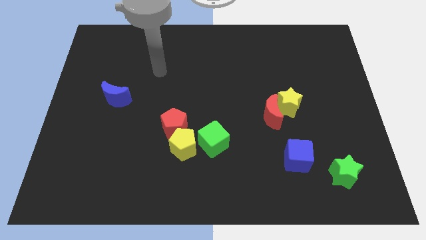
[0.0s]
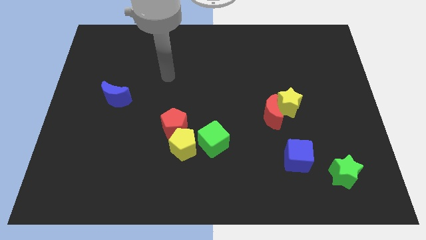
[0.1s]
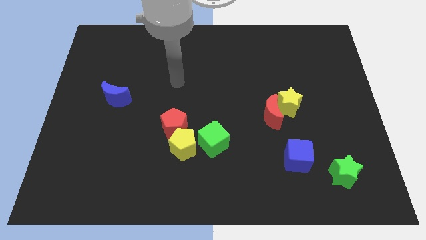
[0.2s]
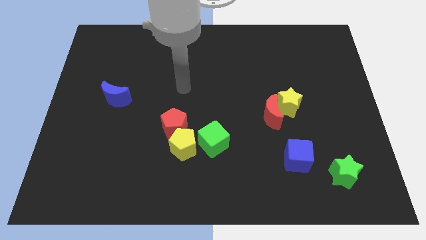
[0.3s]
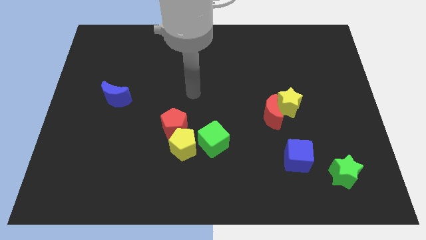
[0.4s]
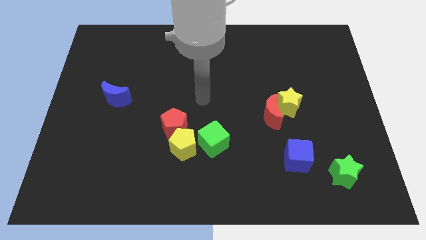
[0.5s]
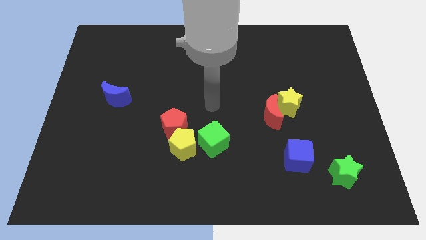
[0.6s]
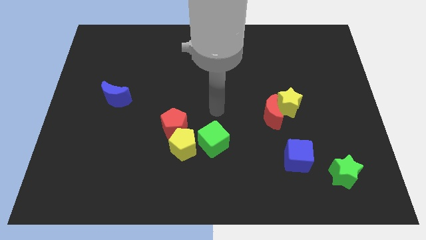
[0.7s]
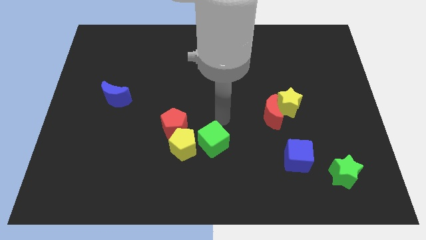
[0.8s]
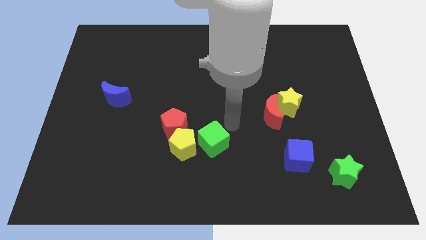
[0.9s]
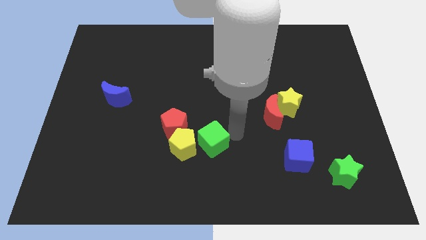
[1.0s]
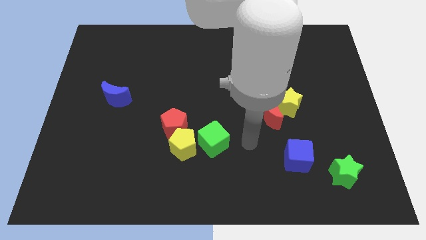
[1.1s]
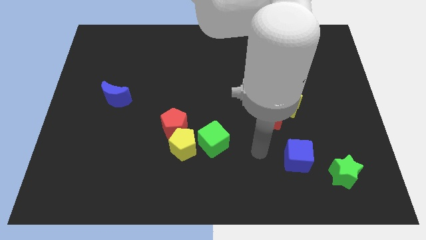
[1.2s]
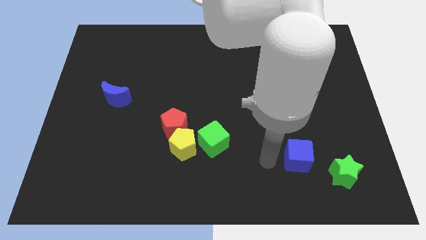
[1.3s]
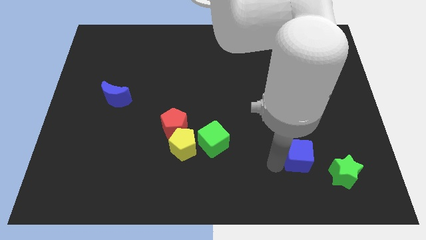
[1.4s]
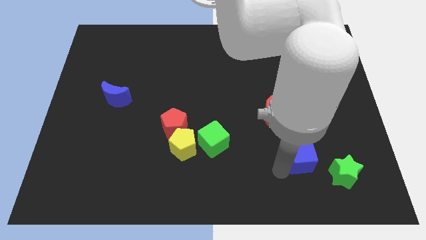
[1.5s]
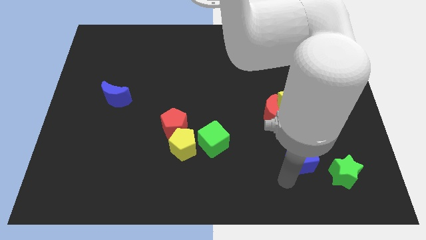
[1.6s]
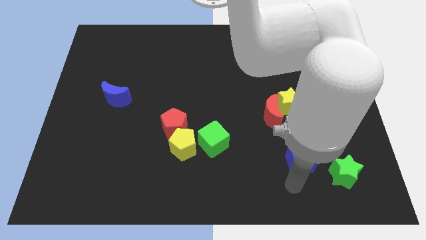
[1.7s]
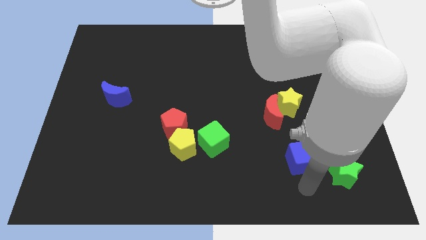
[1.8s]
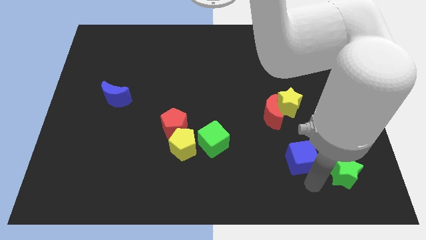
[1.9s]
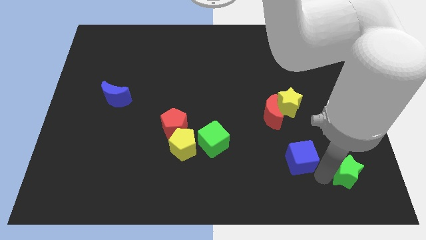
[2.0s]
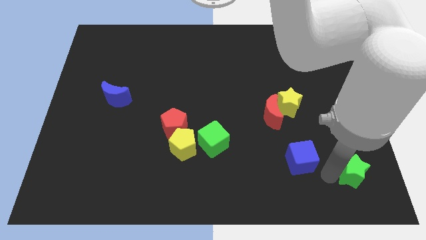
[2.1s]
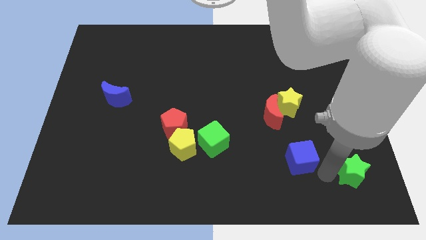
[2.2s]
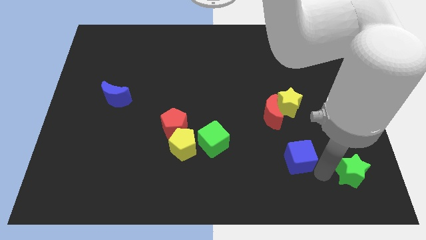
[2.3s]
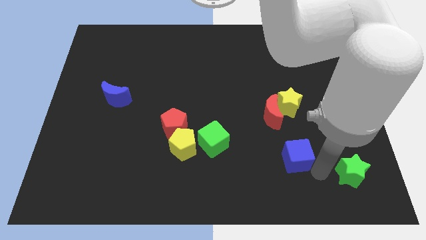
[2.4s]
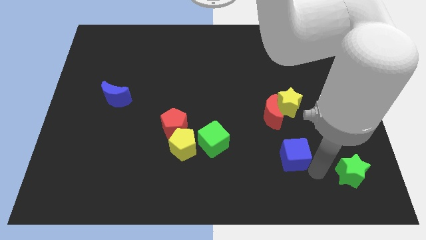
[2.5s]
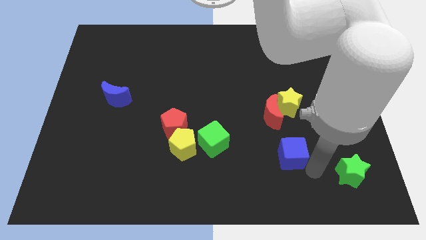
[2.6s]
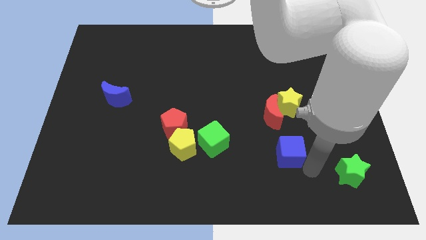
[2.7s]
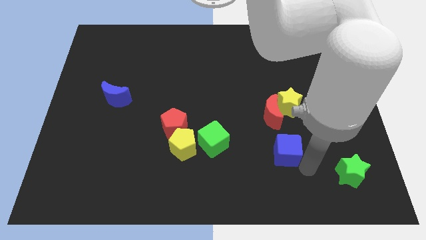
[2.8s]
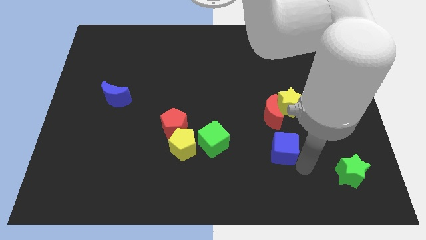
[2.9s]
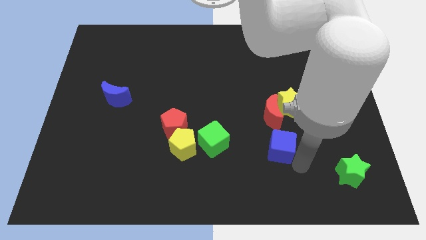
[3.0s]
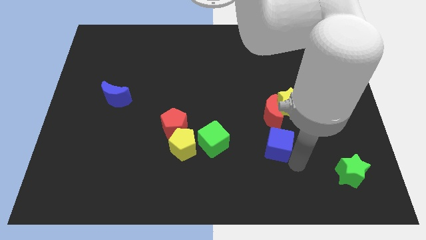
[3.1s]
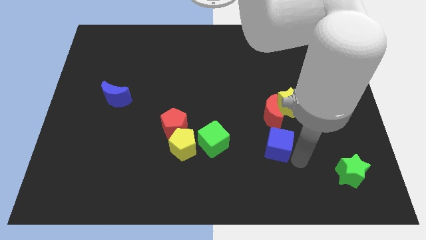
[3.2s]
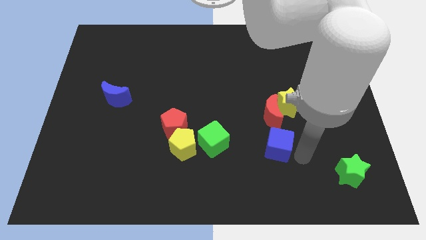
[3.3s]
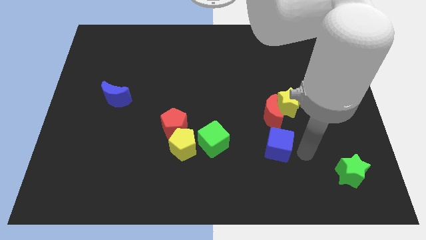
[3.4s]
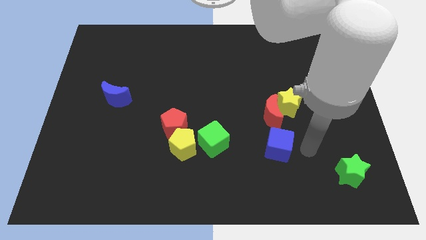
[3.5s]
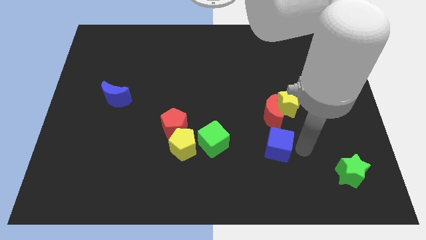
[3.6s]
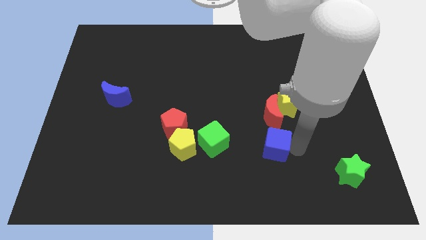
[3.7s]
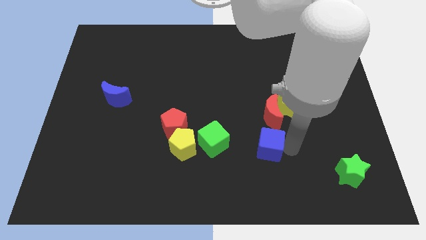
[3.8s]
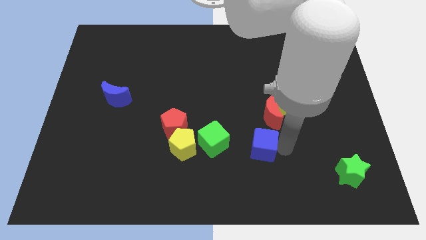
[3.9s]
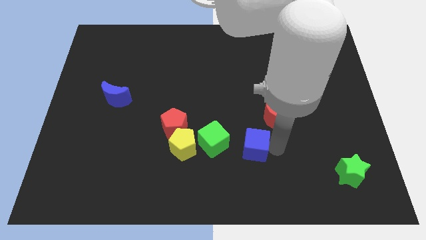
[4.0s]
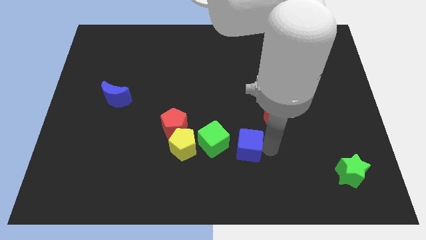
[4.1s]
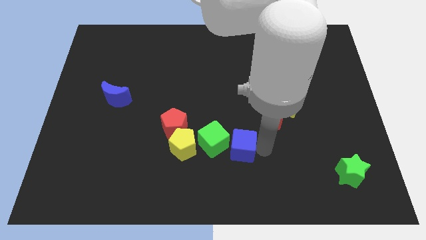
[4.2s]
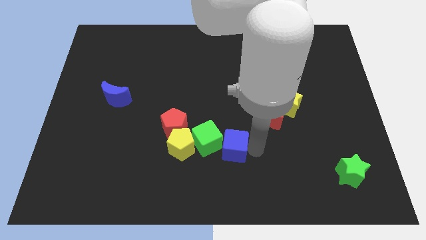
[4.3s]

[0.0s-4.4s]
push the blue cube next to the green cube

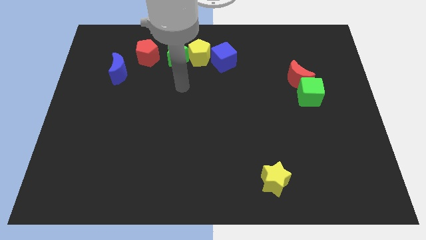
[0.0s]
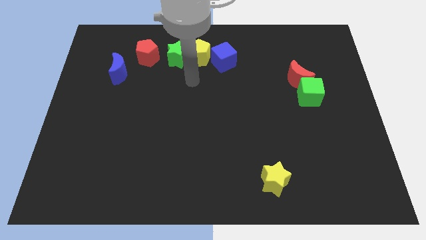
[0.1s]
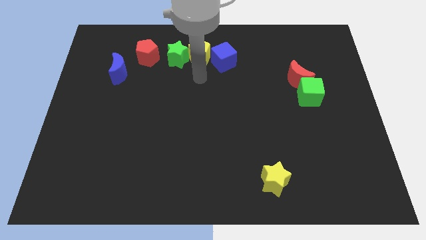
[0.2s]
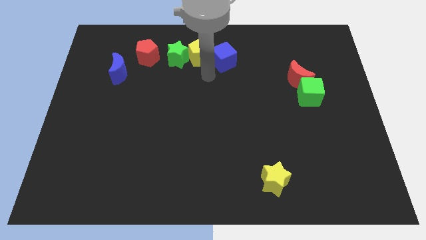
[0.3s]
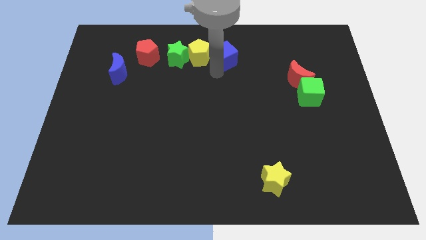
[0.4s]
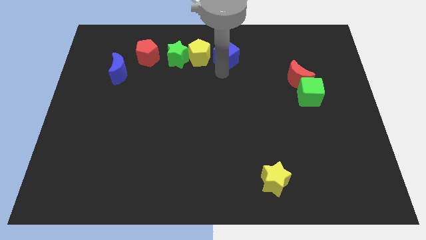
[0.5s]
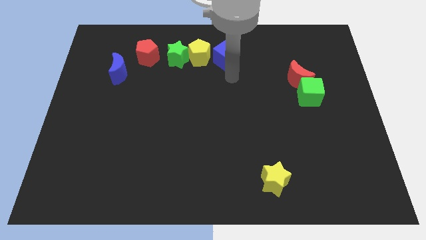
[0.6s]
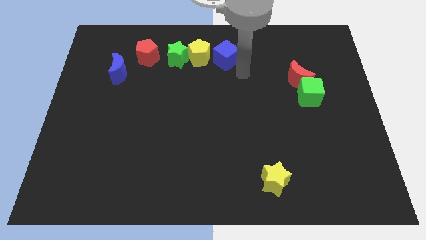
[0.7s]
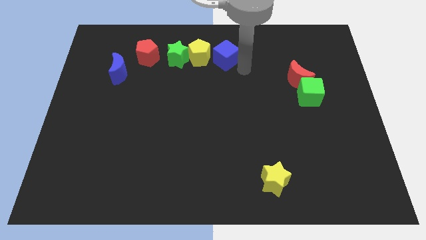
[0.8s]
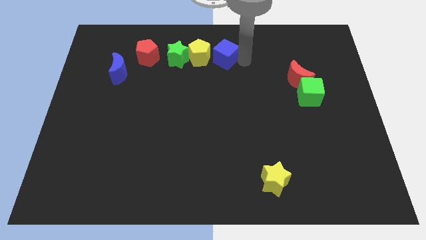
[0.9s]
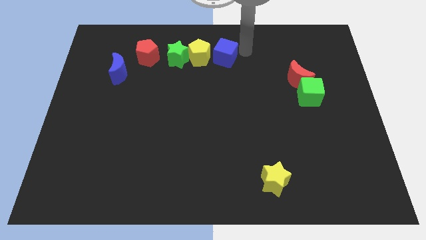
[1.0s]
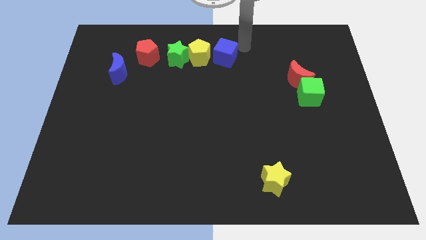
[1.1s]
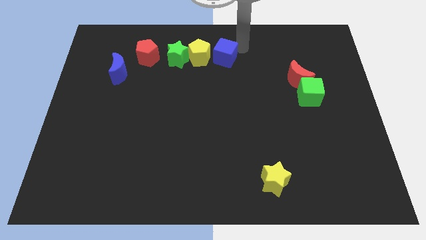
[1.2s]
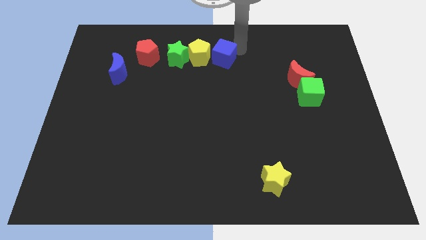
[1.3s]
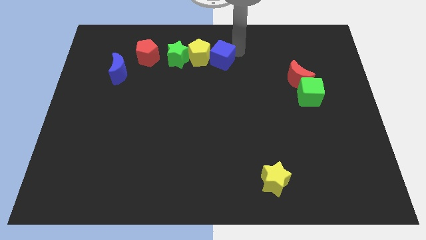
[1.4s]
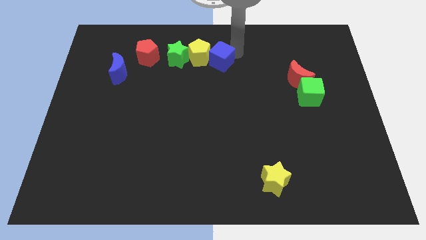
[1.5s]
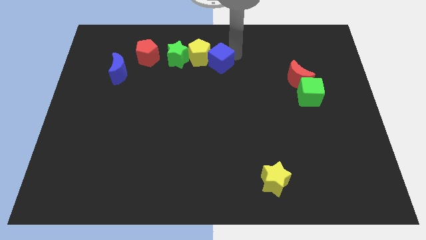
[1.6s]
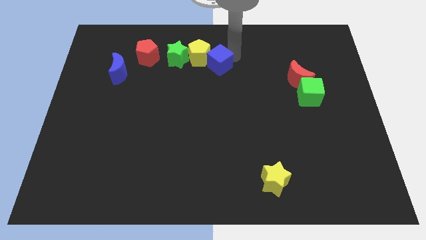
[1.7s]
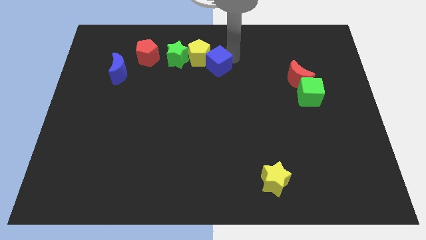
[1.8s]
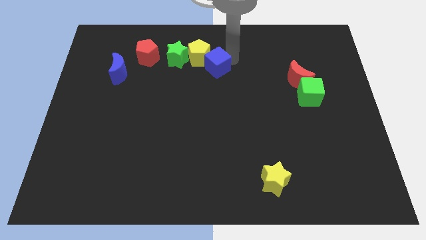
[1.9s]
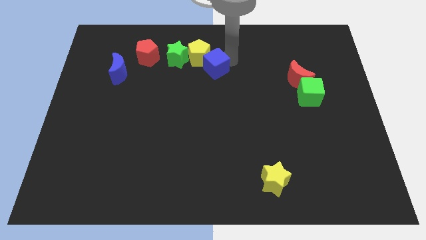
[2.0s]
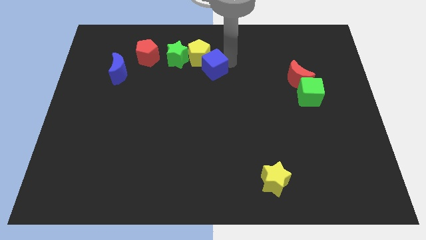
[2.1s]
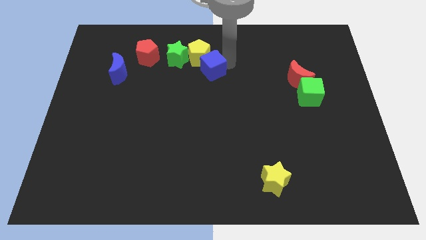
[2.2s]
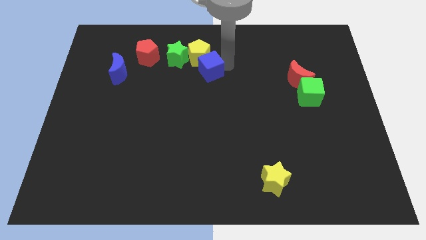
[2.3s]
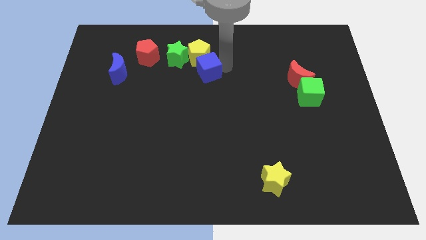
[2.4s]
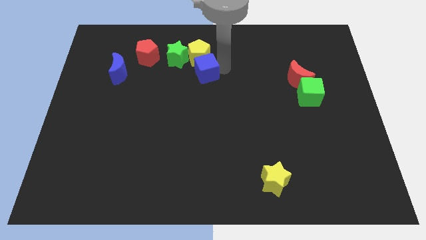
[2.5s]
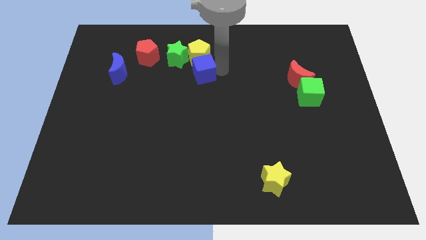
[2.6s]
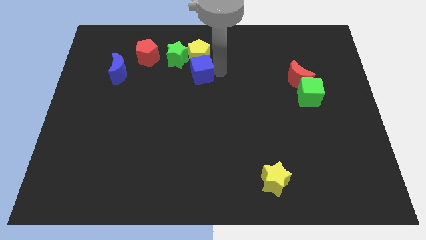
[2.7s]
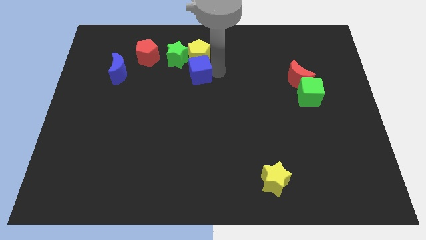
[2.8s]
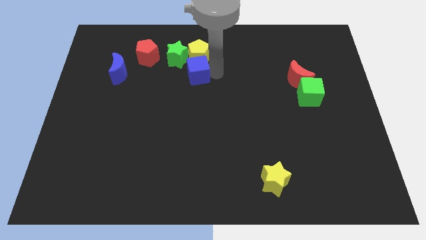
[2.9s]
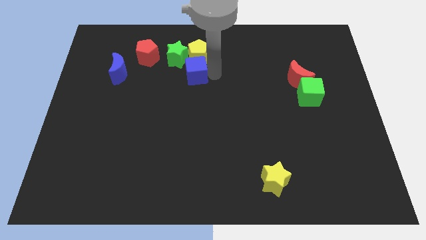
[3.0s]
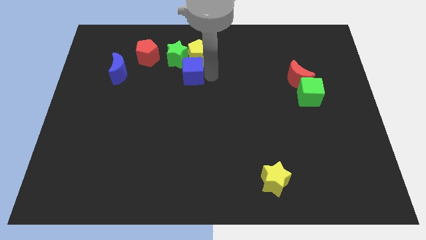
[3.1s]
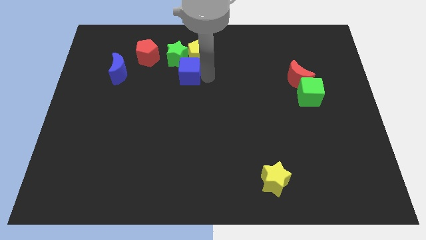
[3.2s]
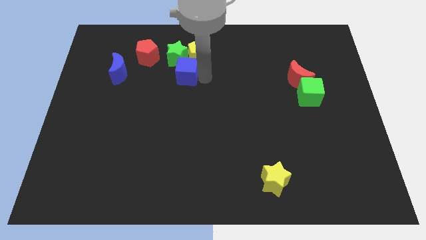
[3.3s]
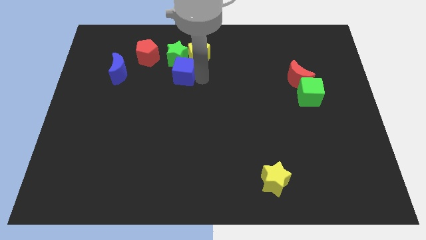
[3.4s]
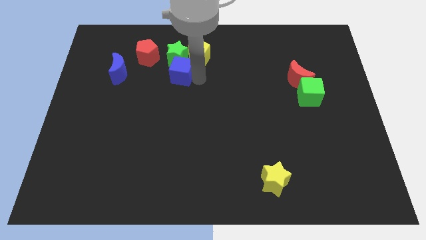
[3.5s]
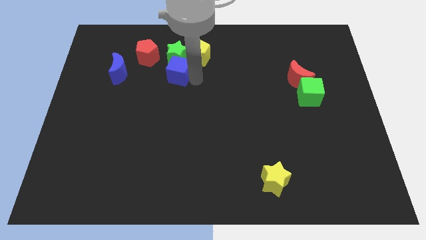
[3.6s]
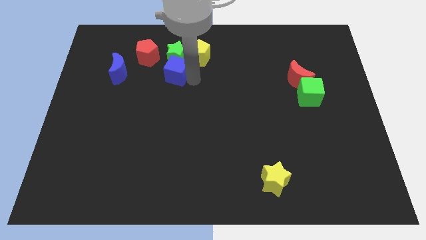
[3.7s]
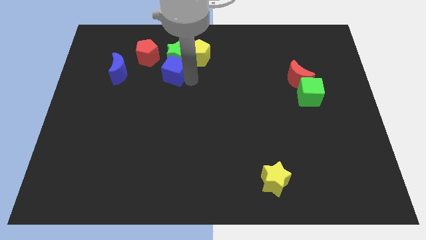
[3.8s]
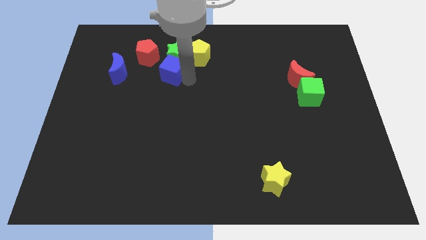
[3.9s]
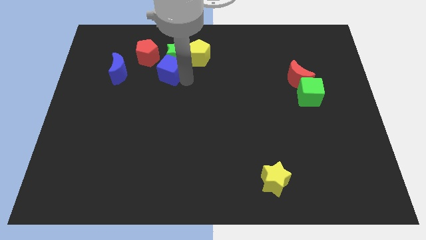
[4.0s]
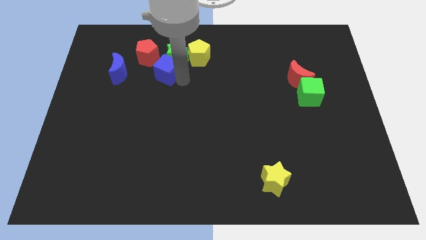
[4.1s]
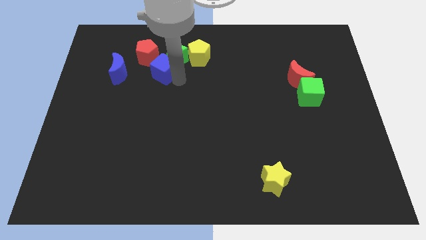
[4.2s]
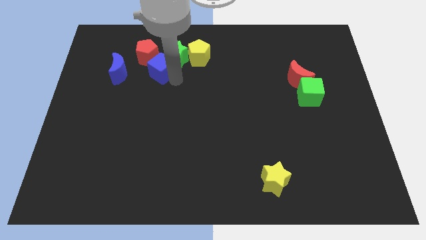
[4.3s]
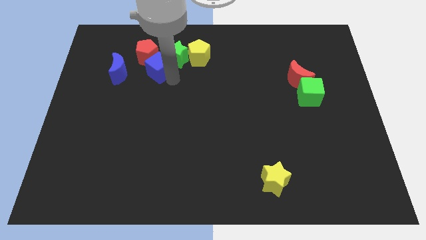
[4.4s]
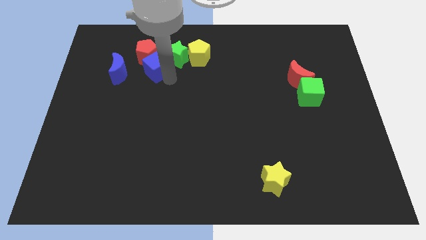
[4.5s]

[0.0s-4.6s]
put the blue cube close to the red pentagon
